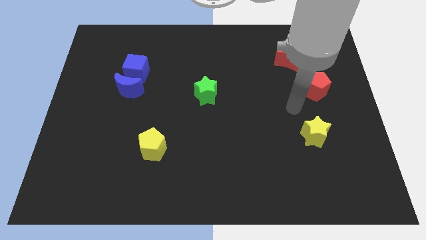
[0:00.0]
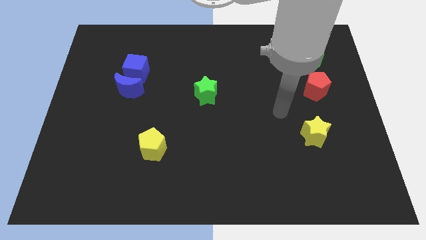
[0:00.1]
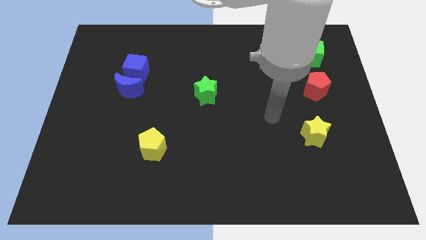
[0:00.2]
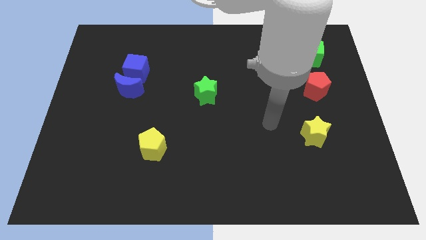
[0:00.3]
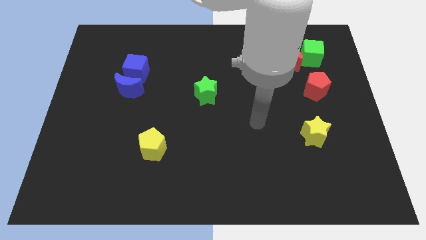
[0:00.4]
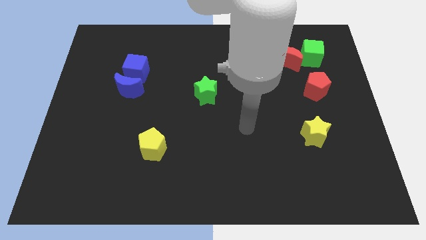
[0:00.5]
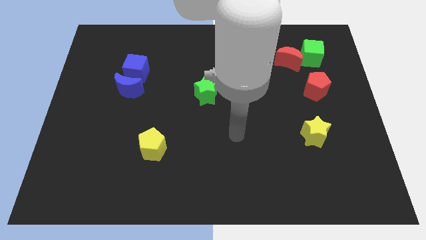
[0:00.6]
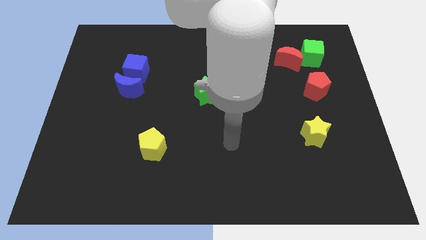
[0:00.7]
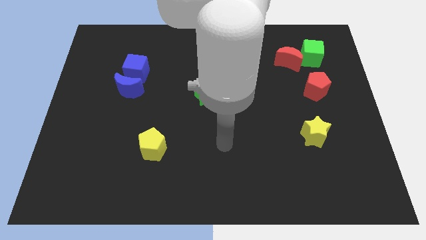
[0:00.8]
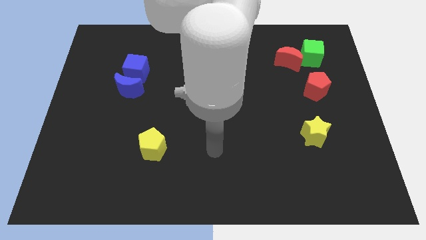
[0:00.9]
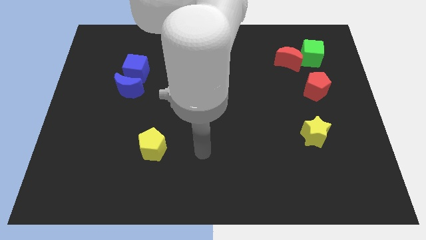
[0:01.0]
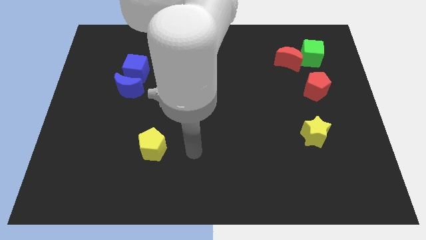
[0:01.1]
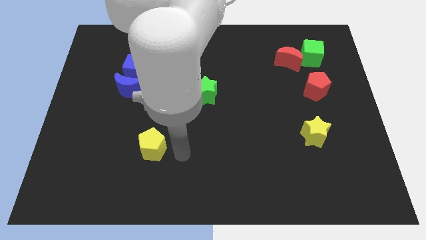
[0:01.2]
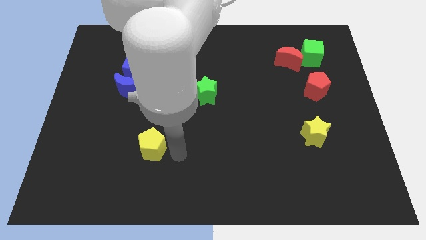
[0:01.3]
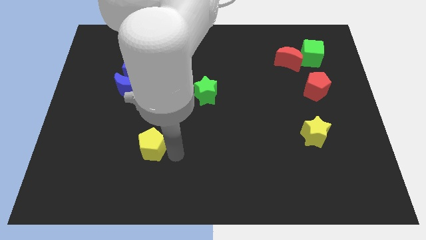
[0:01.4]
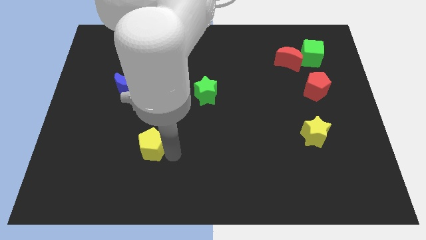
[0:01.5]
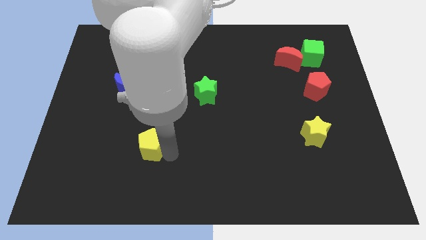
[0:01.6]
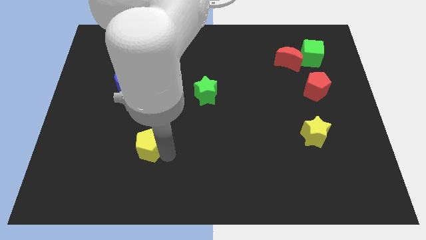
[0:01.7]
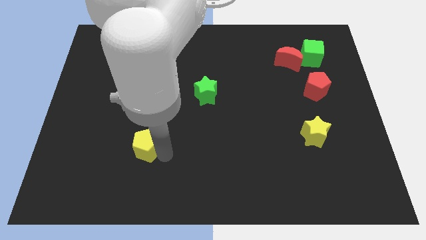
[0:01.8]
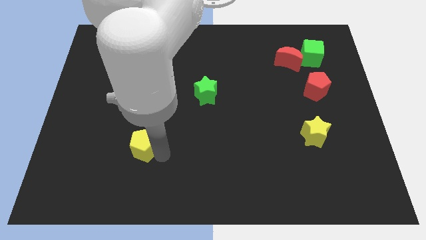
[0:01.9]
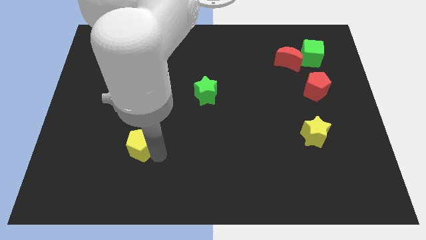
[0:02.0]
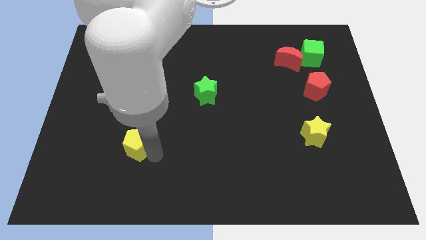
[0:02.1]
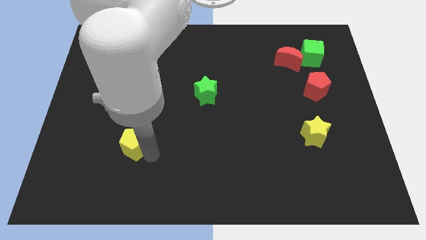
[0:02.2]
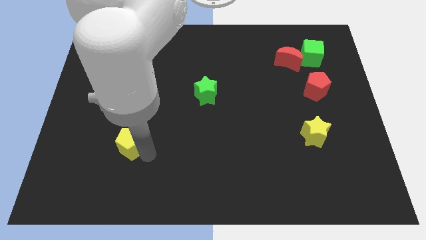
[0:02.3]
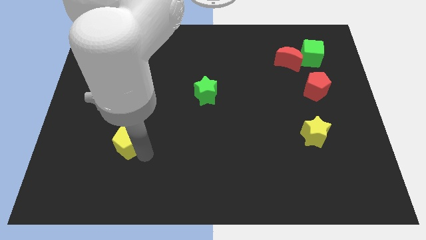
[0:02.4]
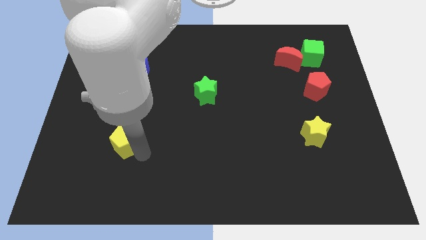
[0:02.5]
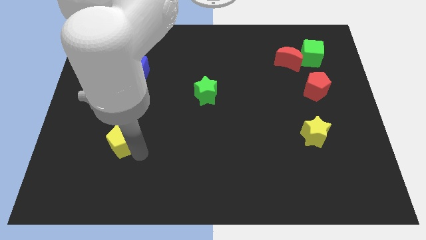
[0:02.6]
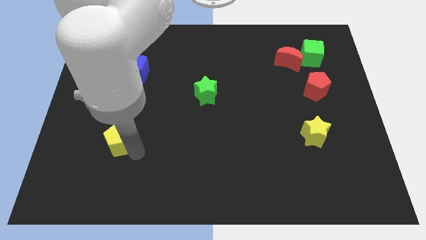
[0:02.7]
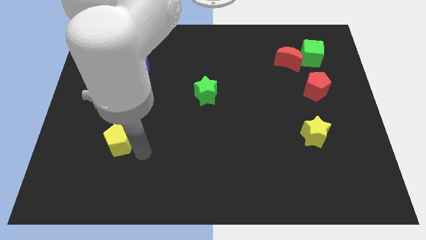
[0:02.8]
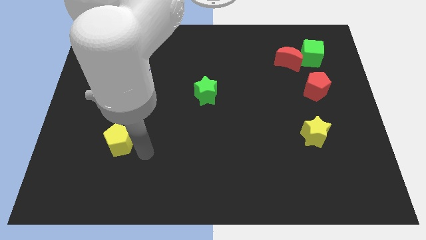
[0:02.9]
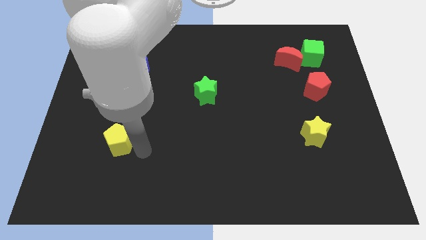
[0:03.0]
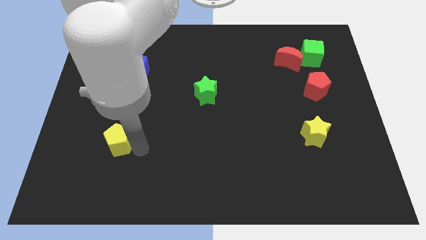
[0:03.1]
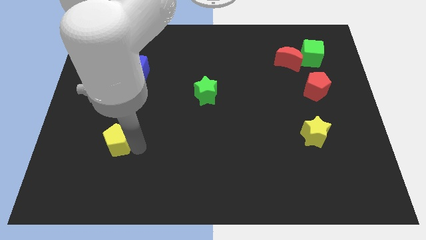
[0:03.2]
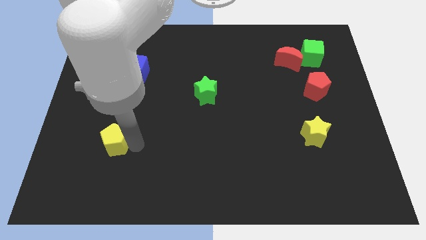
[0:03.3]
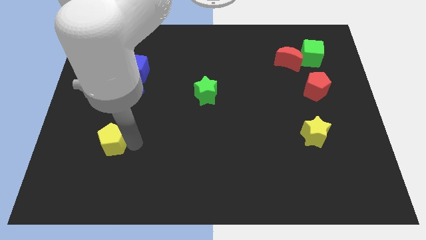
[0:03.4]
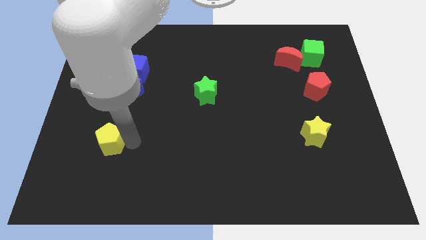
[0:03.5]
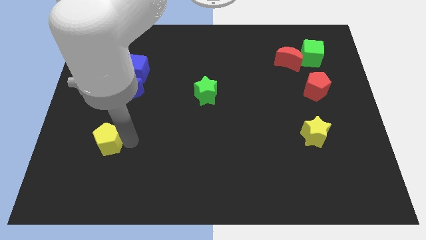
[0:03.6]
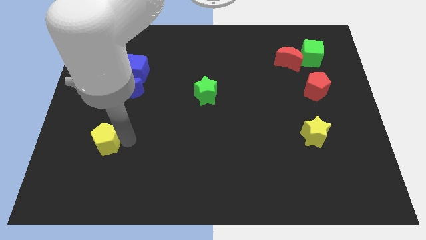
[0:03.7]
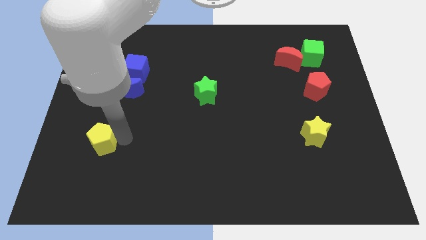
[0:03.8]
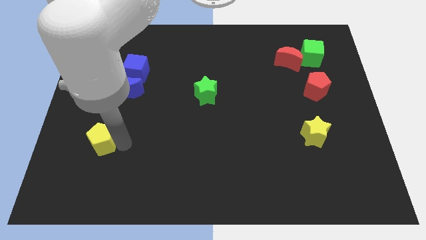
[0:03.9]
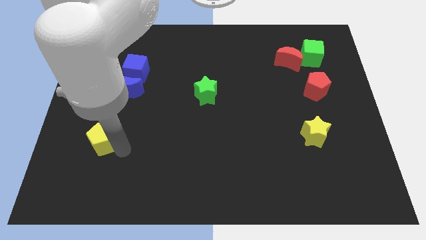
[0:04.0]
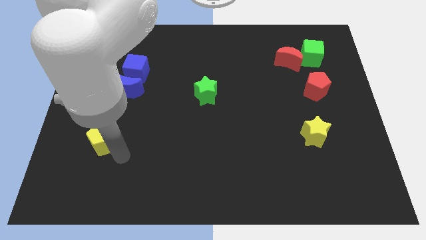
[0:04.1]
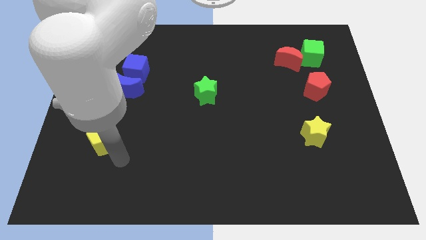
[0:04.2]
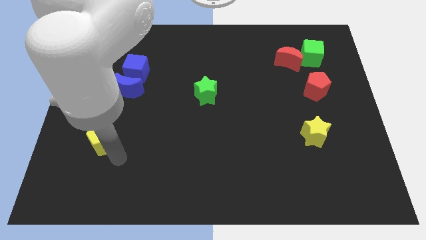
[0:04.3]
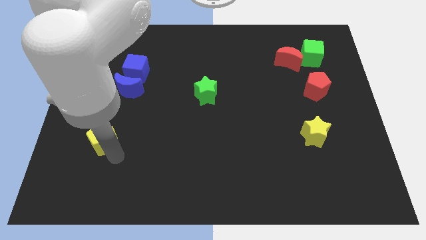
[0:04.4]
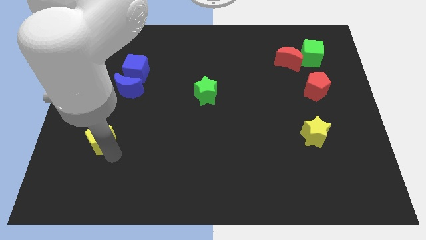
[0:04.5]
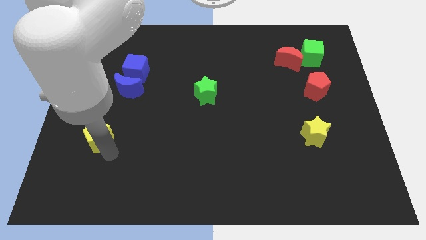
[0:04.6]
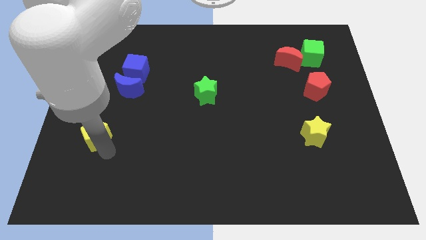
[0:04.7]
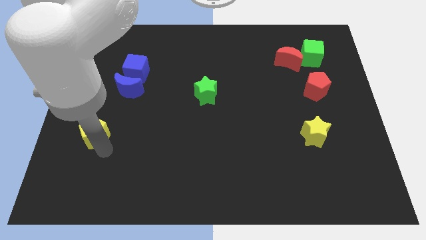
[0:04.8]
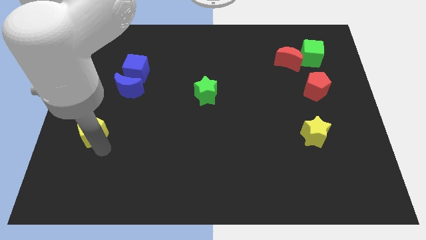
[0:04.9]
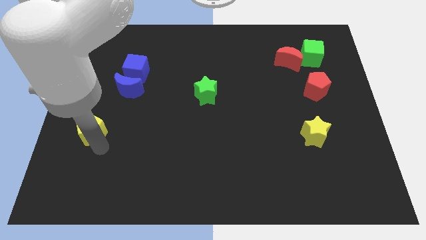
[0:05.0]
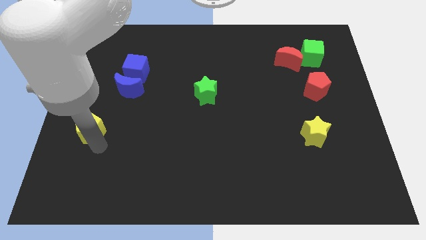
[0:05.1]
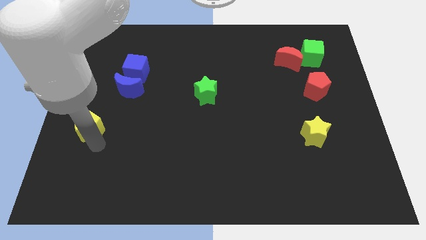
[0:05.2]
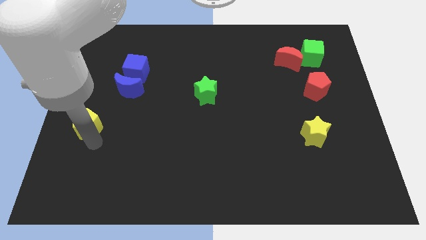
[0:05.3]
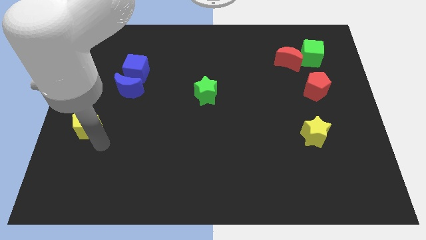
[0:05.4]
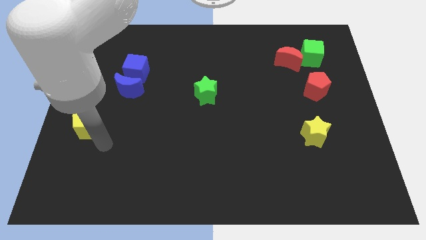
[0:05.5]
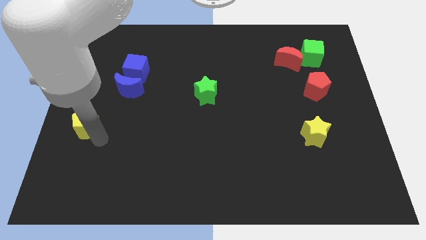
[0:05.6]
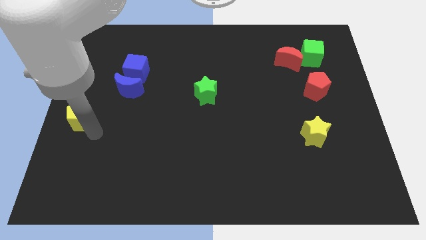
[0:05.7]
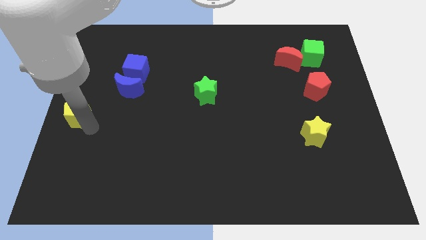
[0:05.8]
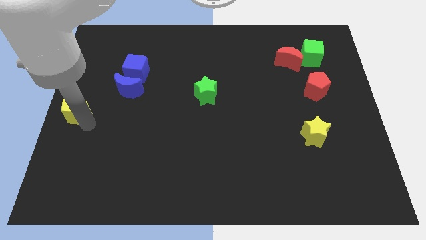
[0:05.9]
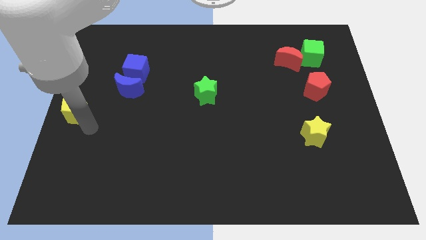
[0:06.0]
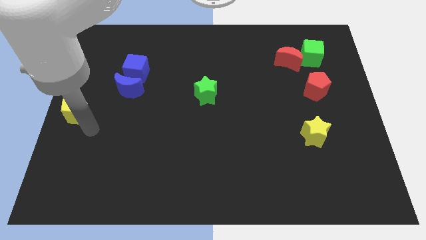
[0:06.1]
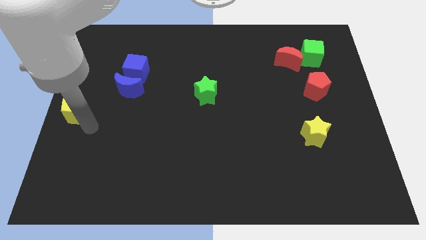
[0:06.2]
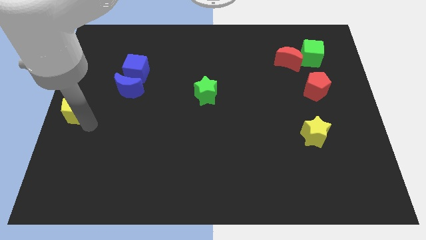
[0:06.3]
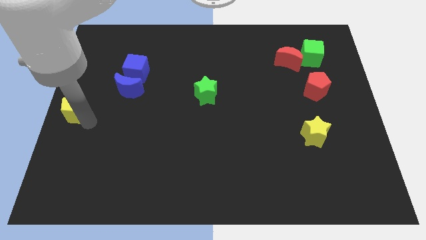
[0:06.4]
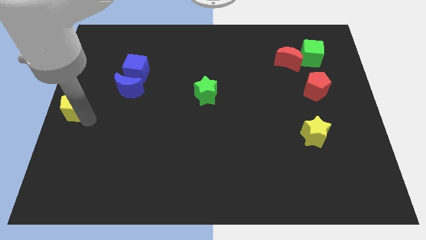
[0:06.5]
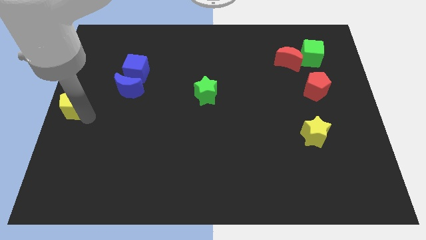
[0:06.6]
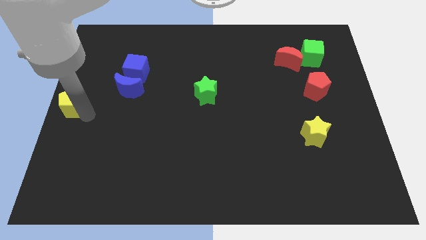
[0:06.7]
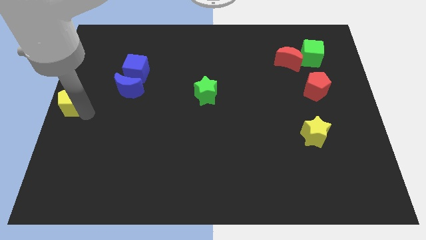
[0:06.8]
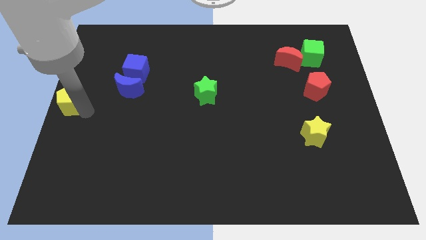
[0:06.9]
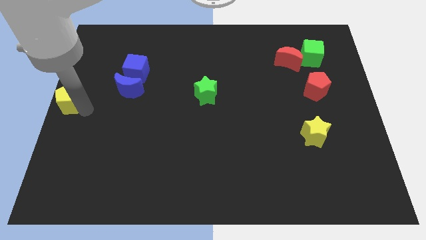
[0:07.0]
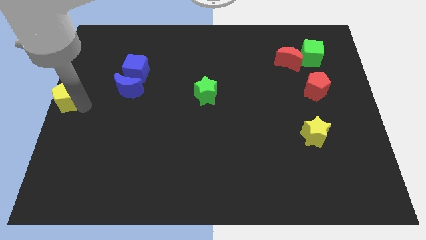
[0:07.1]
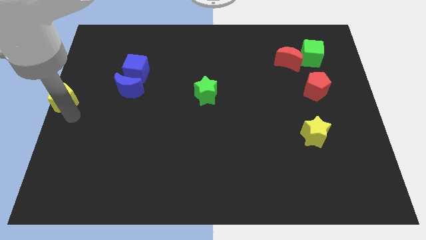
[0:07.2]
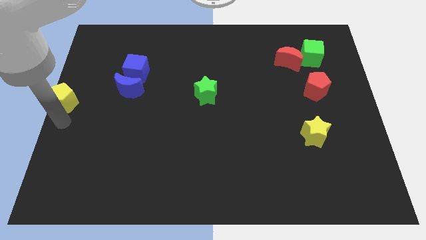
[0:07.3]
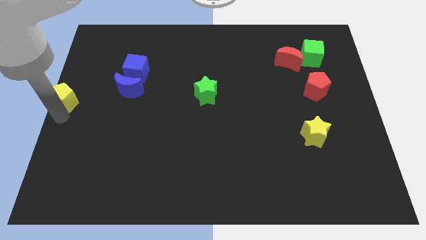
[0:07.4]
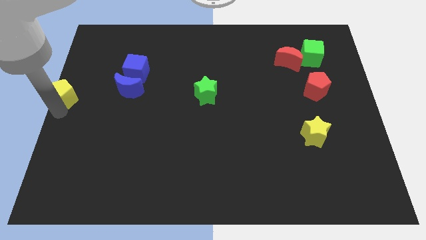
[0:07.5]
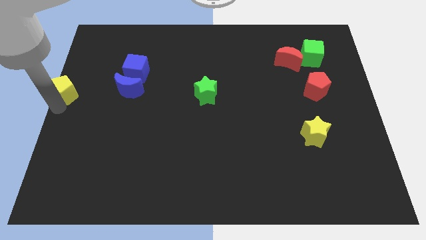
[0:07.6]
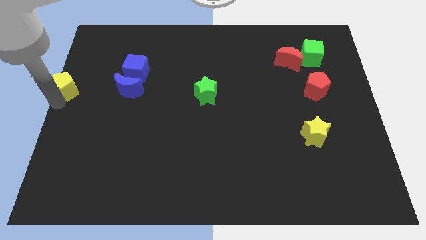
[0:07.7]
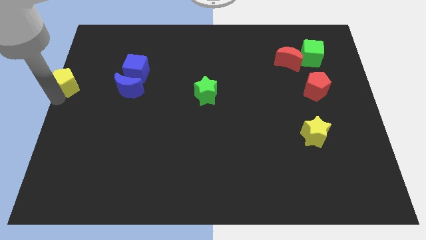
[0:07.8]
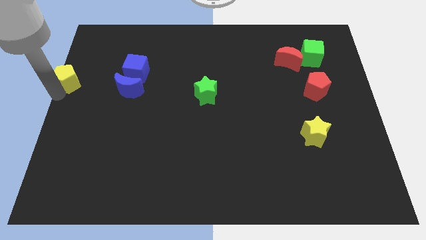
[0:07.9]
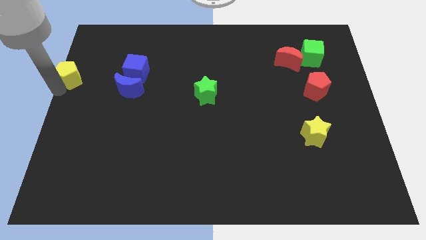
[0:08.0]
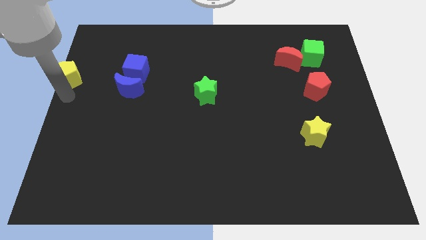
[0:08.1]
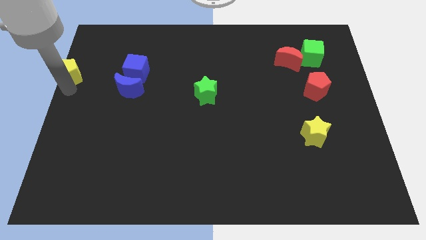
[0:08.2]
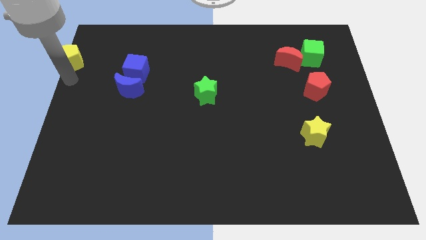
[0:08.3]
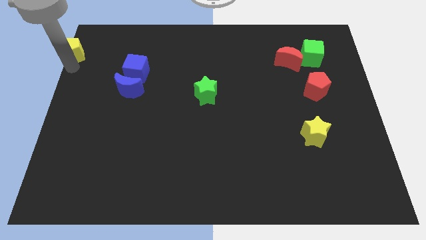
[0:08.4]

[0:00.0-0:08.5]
slide the yellow pentagon to the top left
